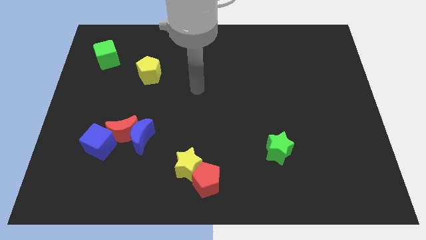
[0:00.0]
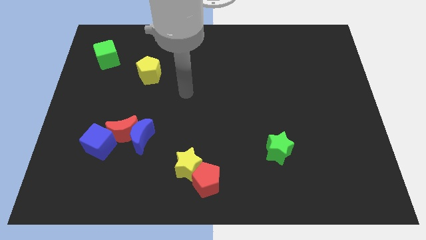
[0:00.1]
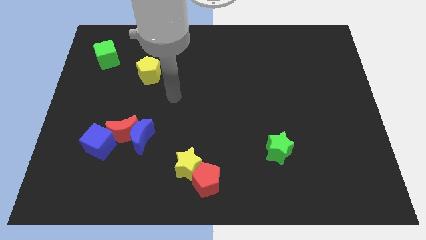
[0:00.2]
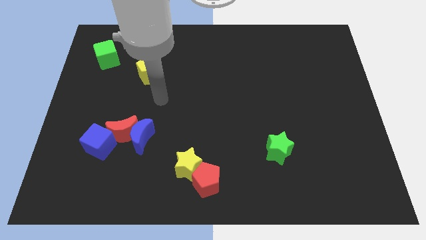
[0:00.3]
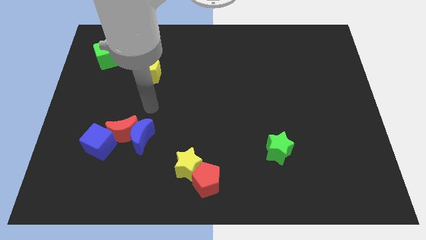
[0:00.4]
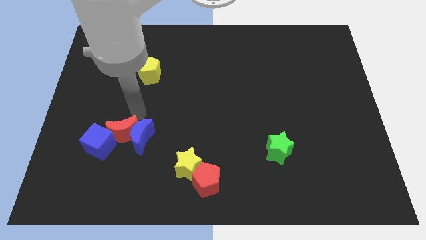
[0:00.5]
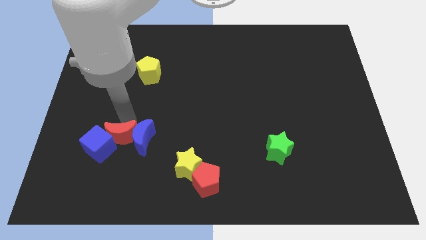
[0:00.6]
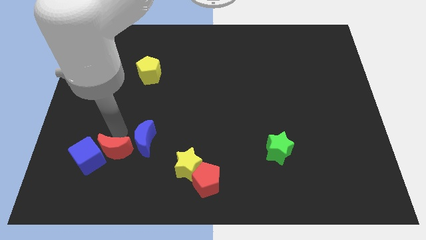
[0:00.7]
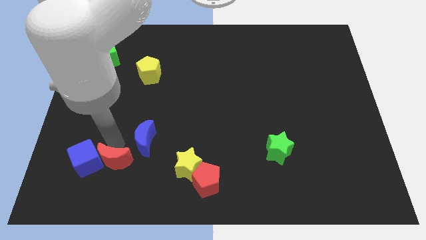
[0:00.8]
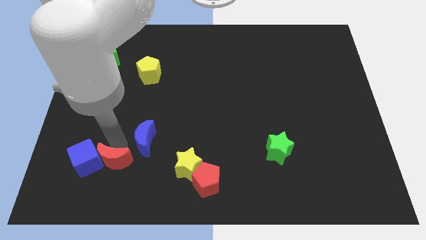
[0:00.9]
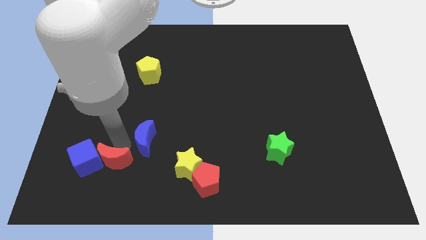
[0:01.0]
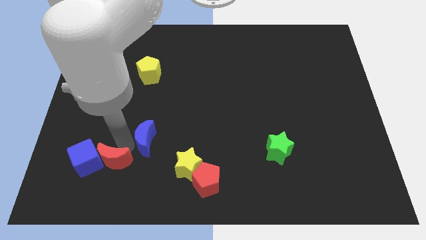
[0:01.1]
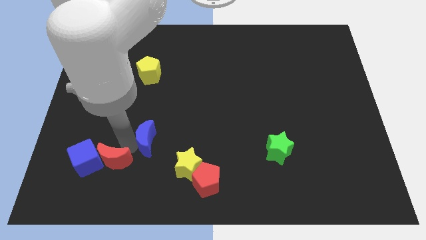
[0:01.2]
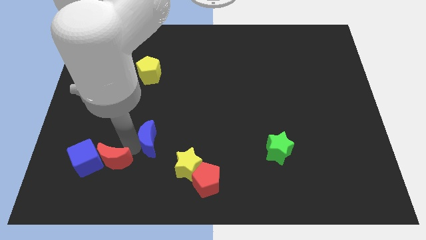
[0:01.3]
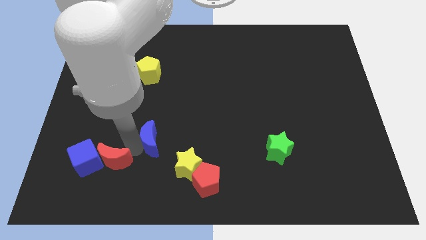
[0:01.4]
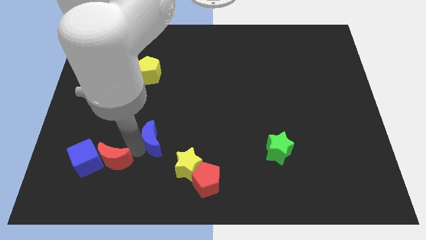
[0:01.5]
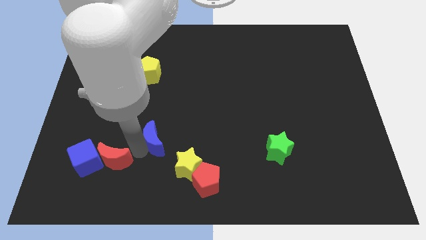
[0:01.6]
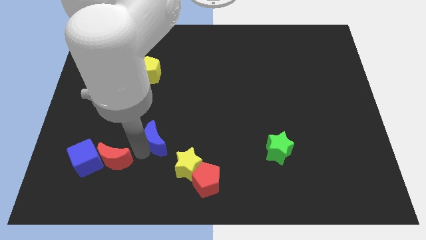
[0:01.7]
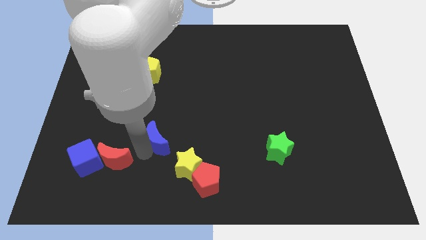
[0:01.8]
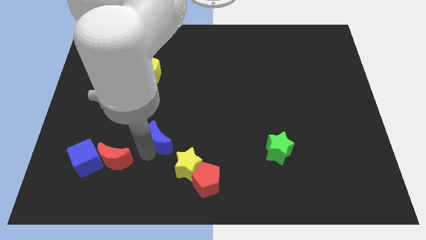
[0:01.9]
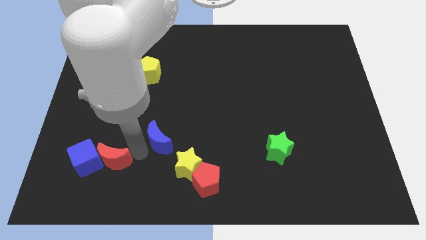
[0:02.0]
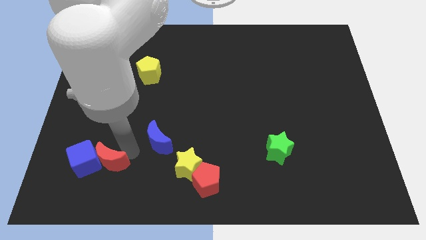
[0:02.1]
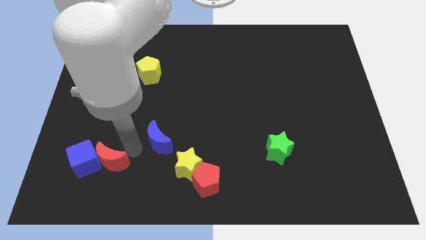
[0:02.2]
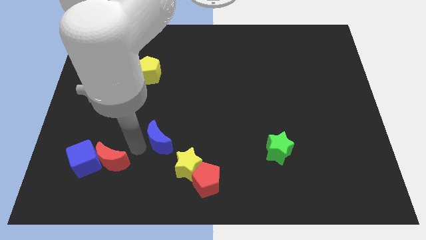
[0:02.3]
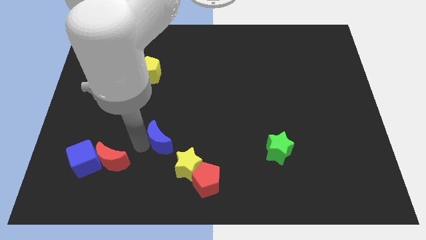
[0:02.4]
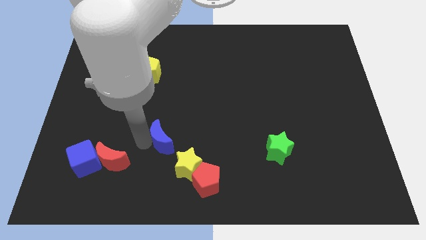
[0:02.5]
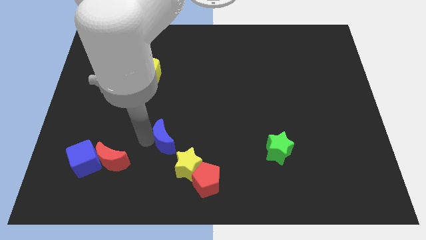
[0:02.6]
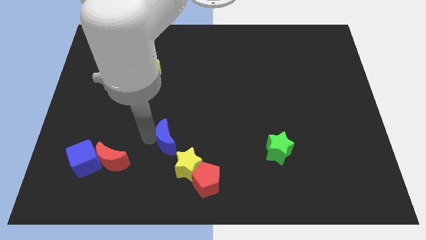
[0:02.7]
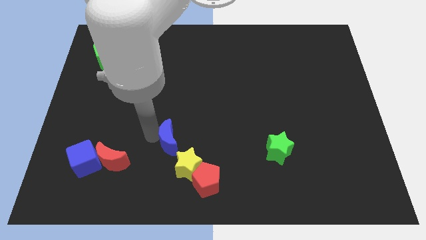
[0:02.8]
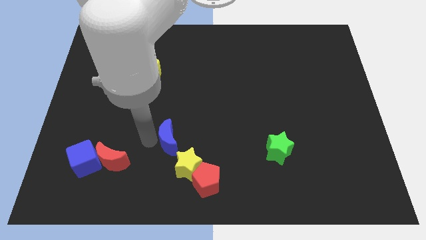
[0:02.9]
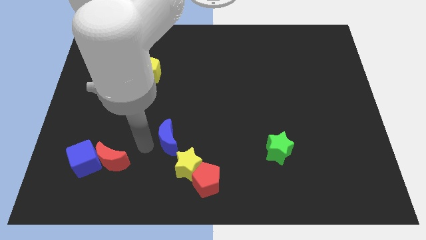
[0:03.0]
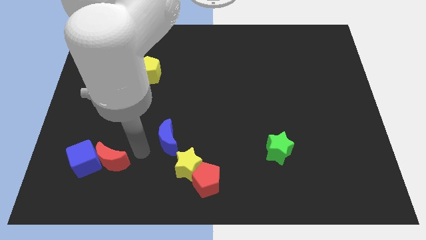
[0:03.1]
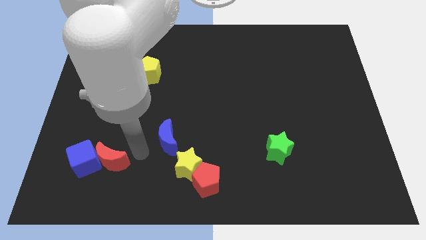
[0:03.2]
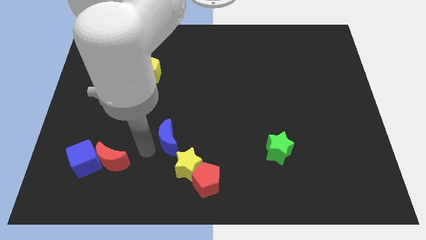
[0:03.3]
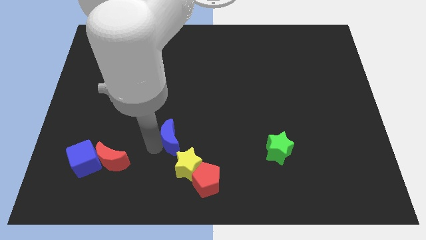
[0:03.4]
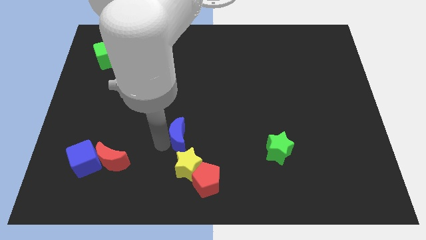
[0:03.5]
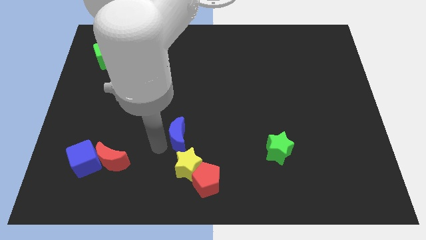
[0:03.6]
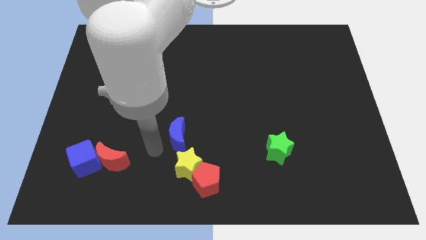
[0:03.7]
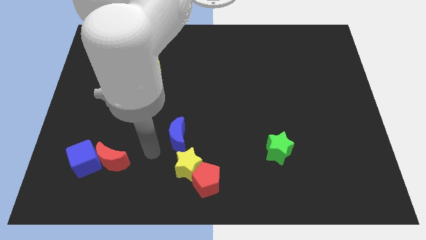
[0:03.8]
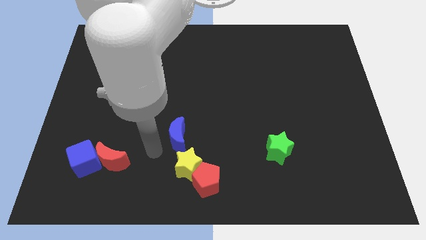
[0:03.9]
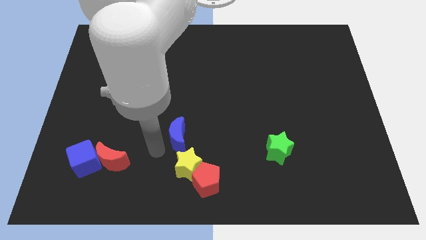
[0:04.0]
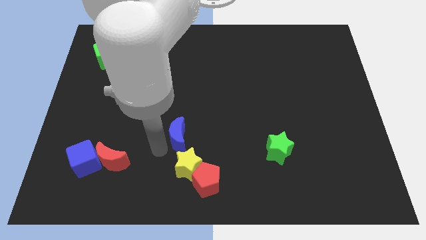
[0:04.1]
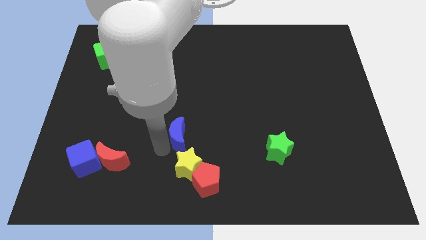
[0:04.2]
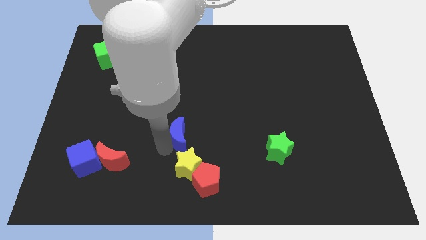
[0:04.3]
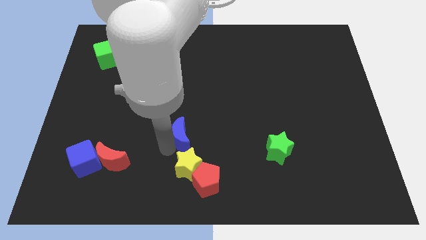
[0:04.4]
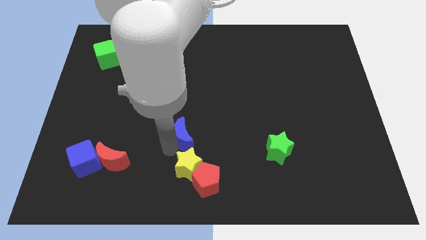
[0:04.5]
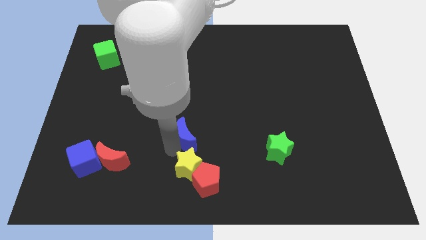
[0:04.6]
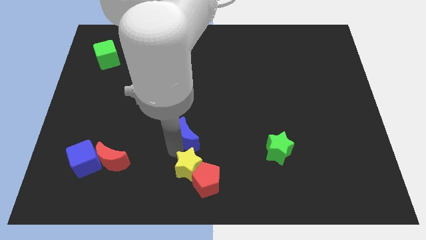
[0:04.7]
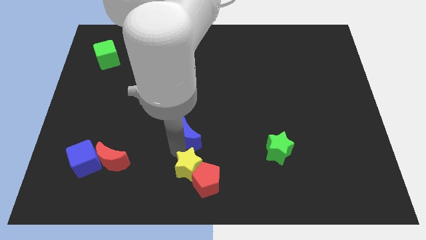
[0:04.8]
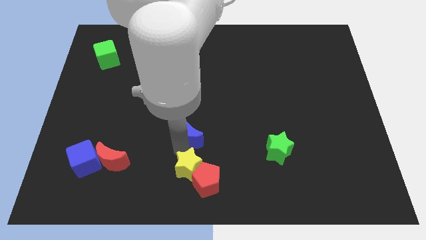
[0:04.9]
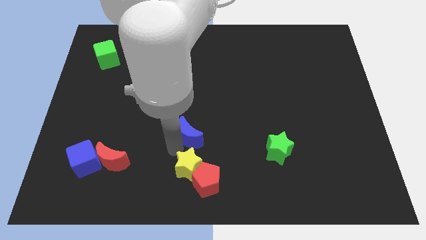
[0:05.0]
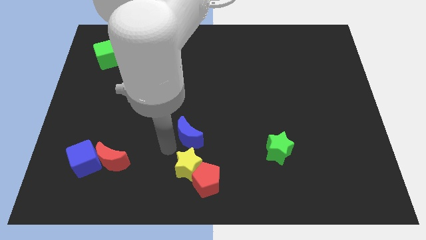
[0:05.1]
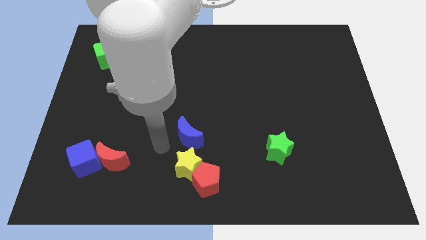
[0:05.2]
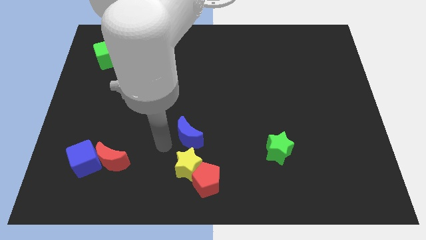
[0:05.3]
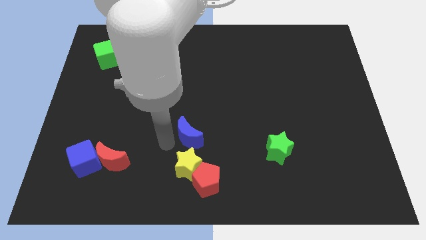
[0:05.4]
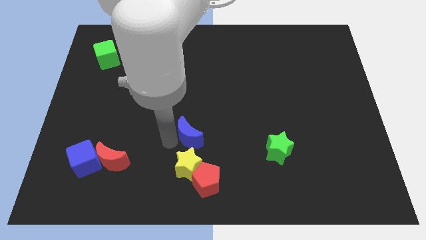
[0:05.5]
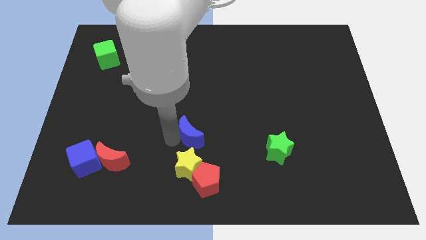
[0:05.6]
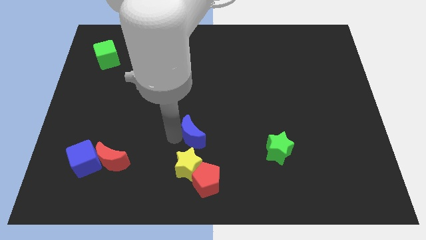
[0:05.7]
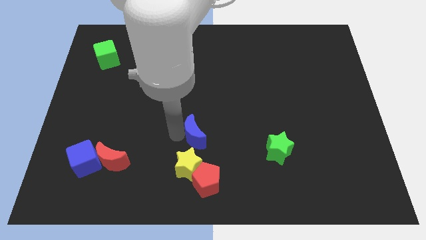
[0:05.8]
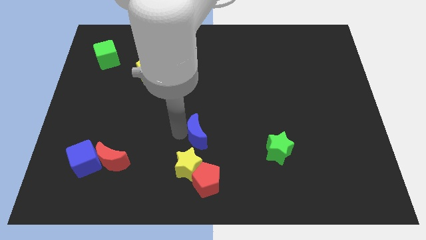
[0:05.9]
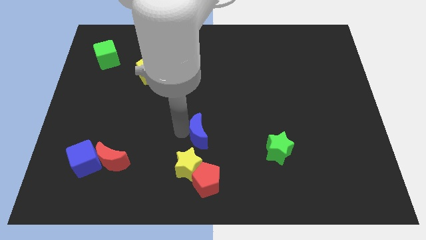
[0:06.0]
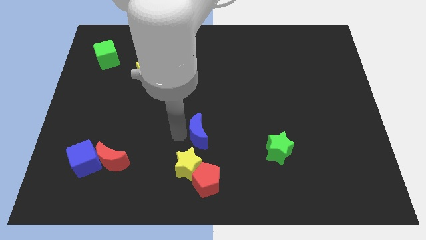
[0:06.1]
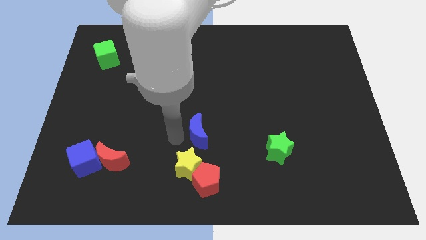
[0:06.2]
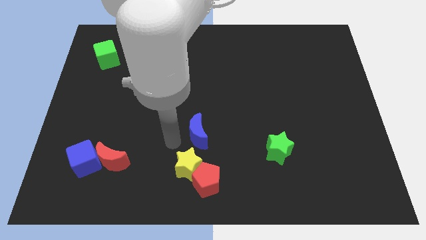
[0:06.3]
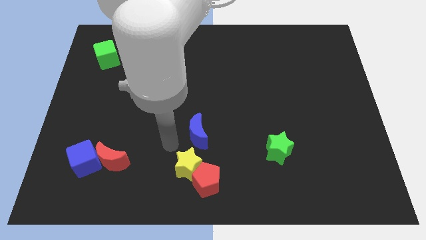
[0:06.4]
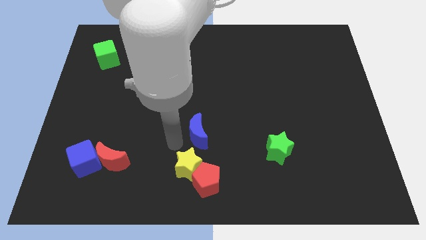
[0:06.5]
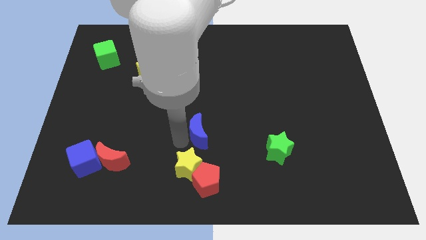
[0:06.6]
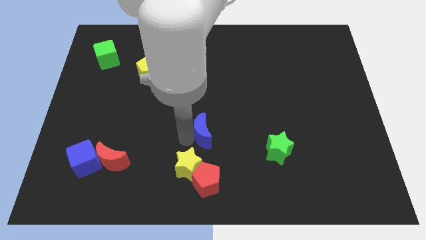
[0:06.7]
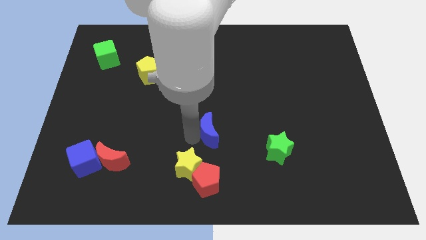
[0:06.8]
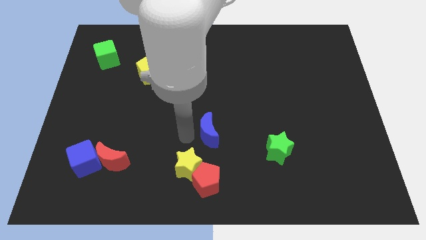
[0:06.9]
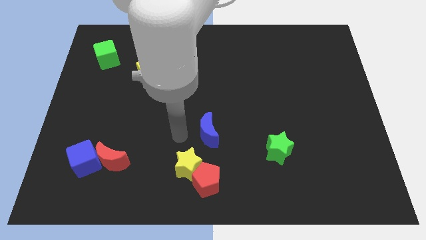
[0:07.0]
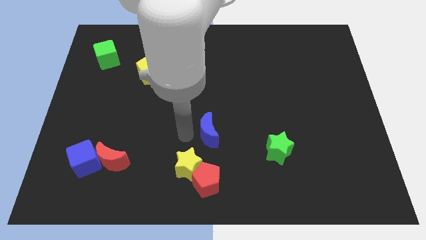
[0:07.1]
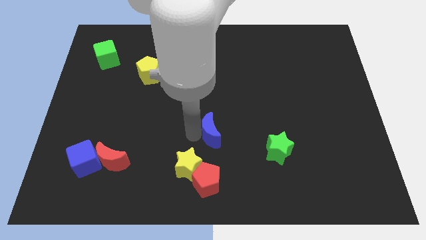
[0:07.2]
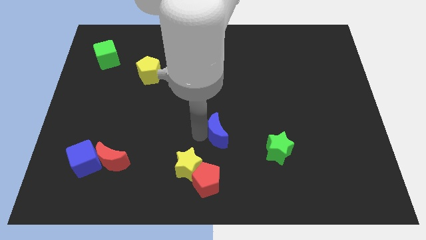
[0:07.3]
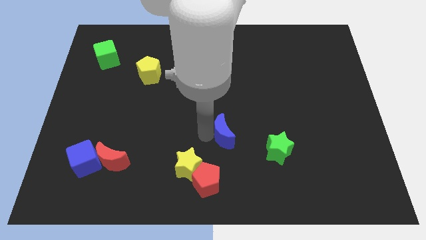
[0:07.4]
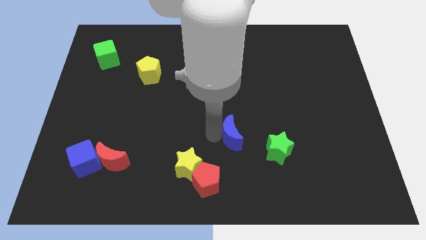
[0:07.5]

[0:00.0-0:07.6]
push the blue moon right

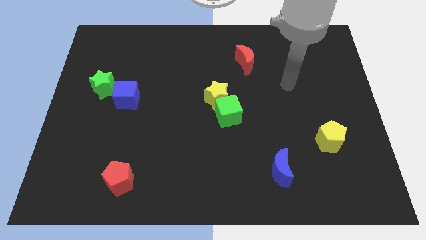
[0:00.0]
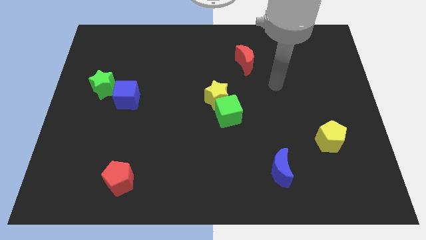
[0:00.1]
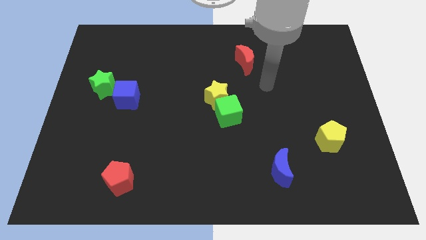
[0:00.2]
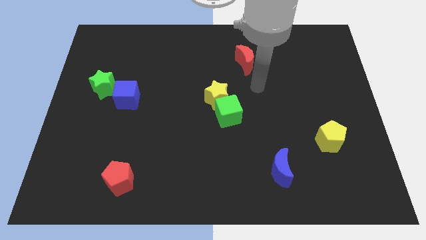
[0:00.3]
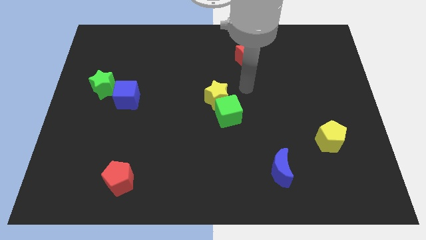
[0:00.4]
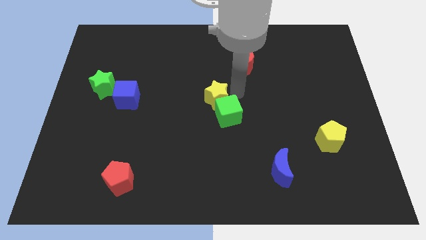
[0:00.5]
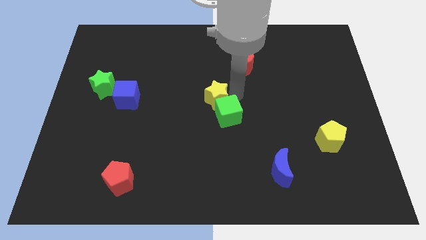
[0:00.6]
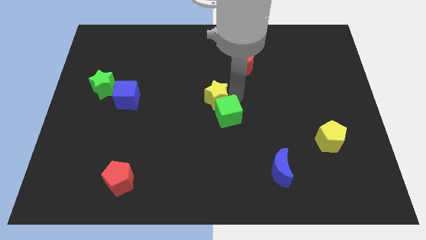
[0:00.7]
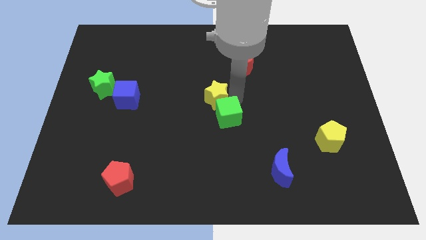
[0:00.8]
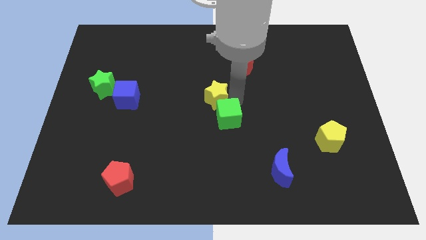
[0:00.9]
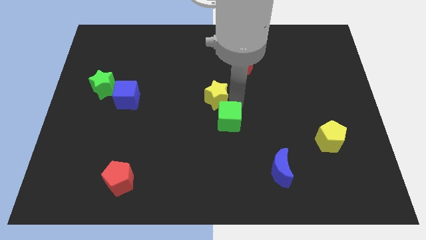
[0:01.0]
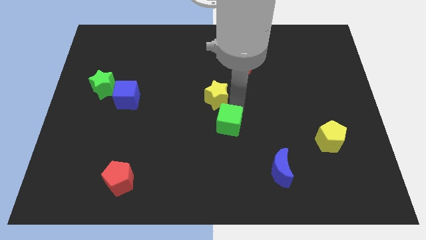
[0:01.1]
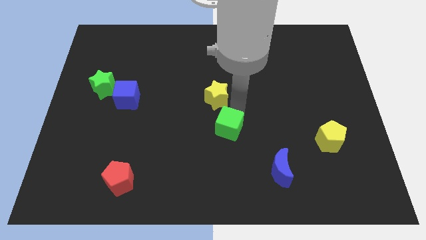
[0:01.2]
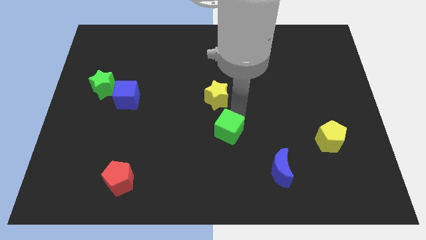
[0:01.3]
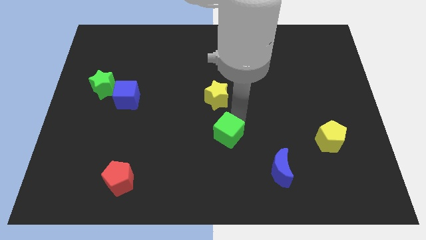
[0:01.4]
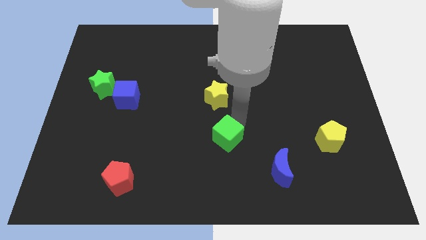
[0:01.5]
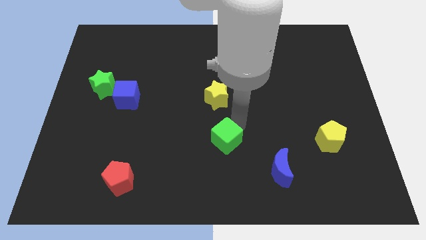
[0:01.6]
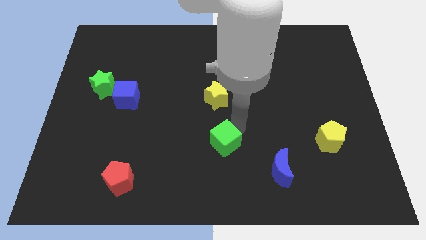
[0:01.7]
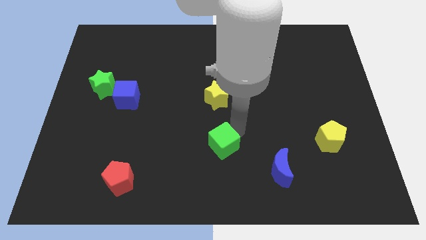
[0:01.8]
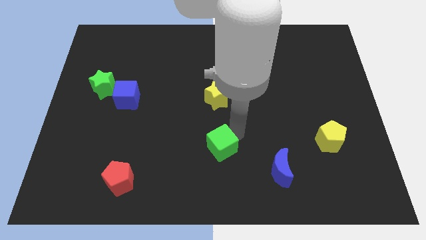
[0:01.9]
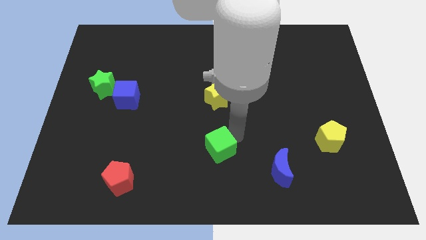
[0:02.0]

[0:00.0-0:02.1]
slightly slide the green cube down and then to the left
